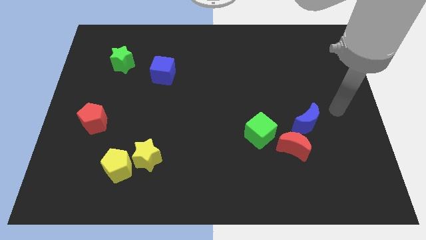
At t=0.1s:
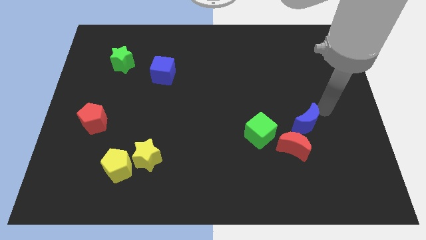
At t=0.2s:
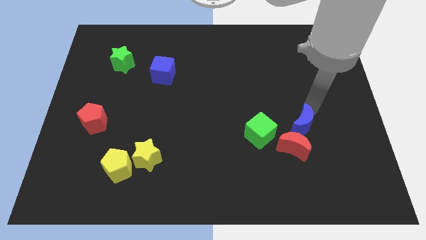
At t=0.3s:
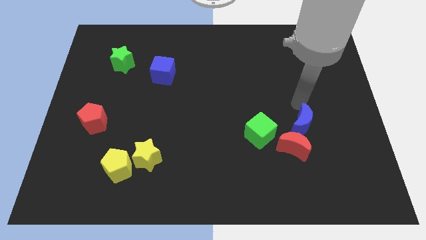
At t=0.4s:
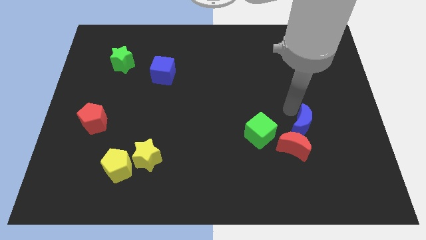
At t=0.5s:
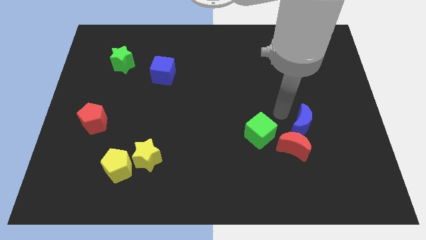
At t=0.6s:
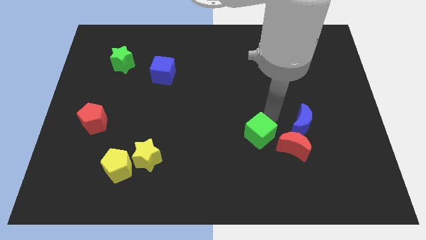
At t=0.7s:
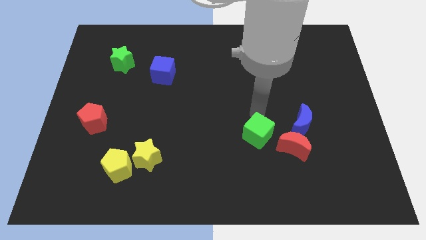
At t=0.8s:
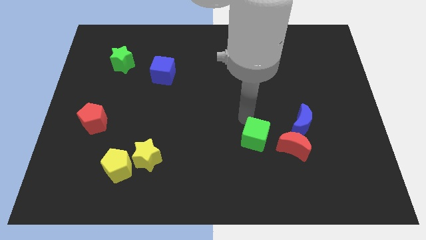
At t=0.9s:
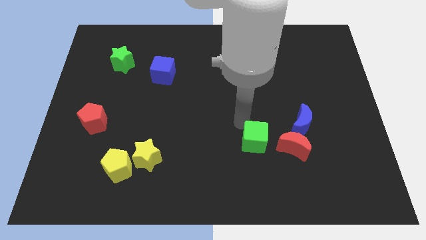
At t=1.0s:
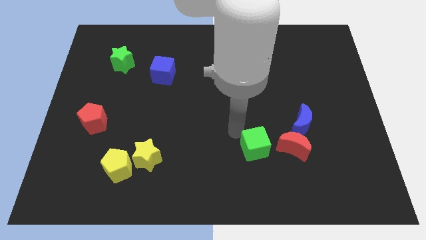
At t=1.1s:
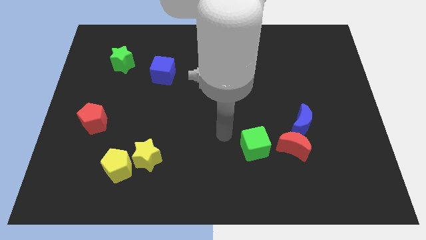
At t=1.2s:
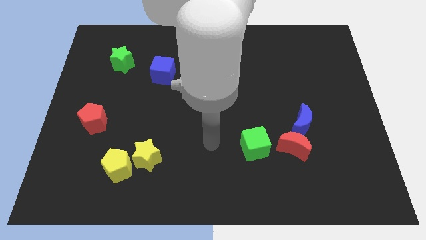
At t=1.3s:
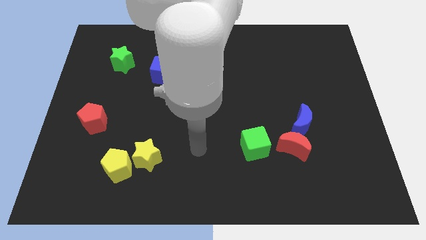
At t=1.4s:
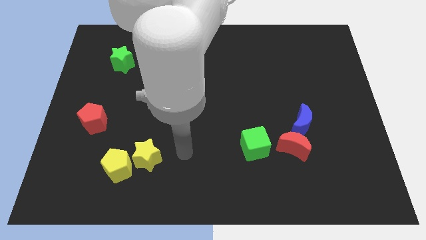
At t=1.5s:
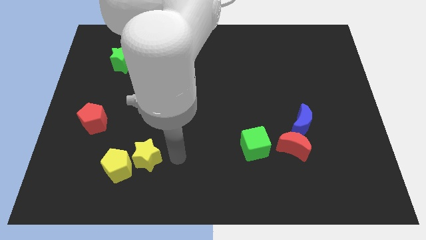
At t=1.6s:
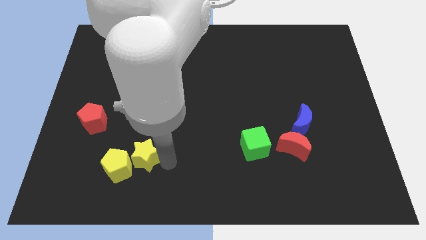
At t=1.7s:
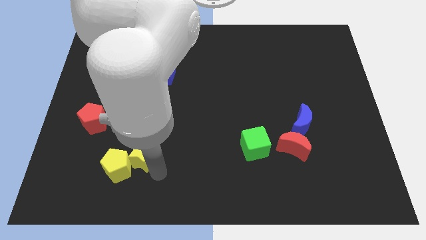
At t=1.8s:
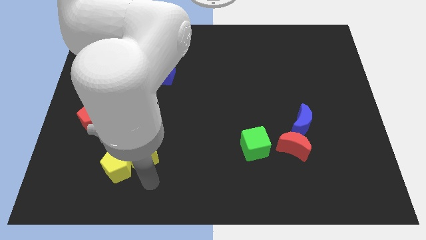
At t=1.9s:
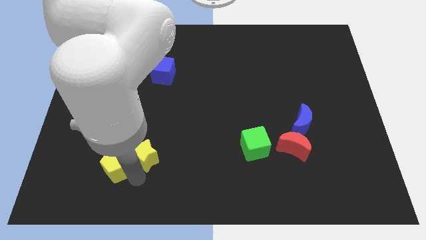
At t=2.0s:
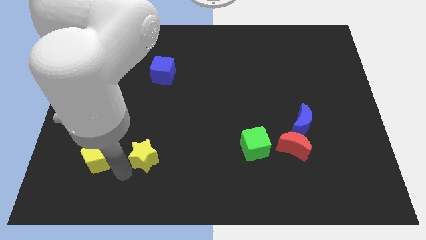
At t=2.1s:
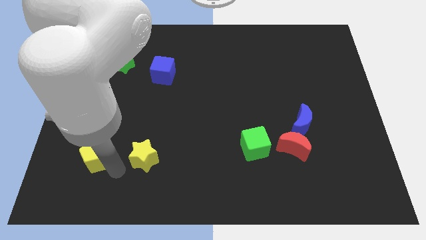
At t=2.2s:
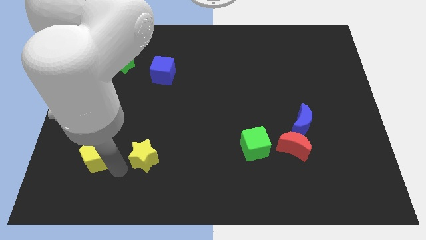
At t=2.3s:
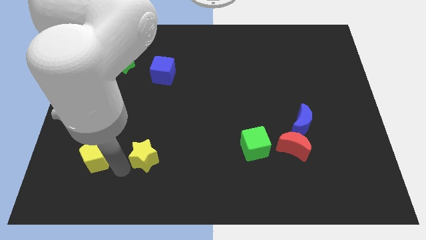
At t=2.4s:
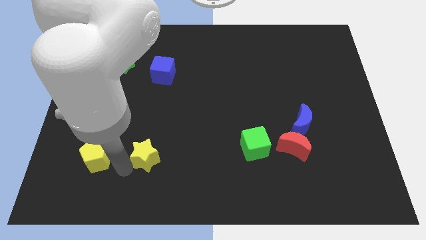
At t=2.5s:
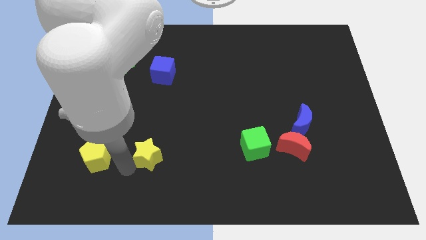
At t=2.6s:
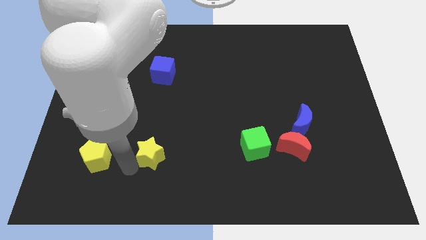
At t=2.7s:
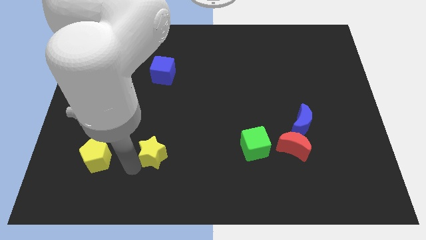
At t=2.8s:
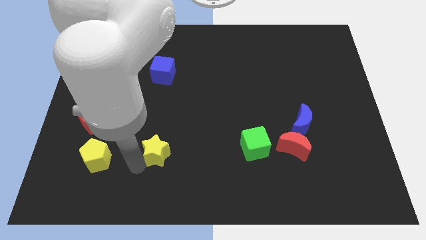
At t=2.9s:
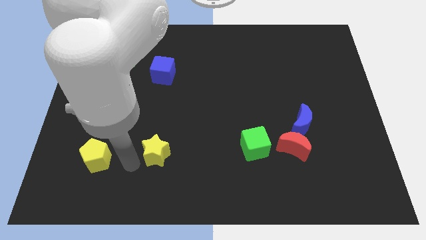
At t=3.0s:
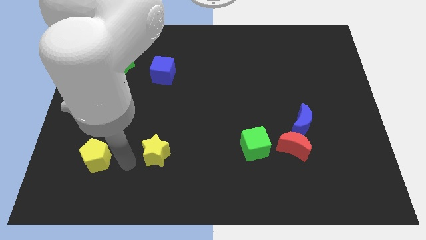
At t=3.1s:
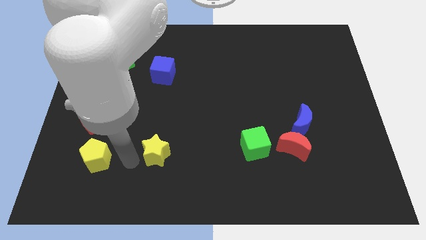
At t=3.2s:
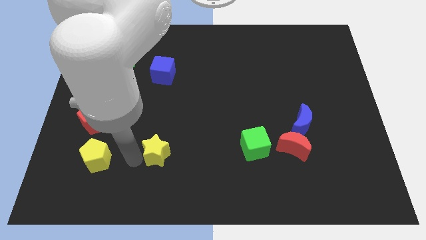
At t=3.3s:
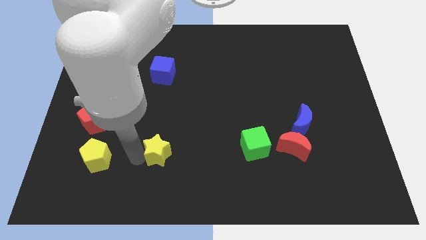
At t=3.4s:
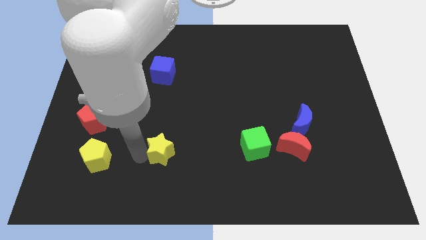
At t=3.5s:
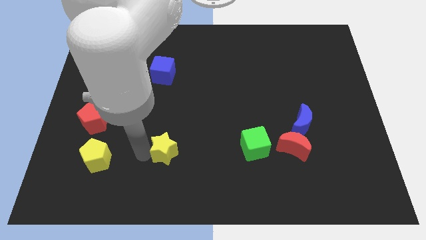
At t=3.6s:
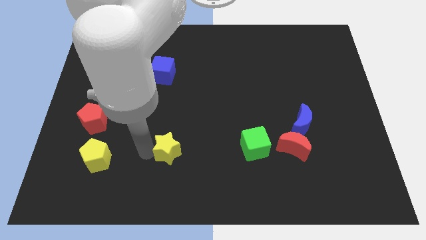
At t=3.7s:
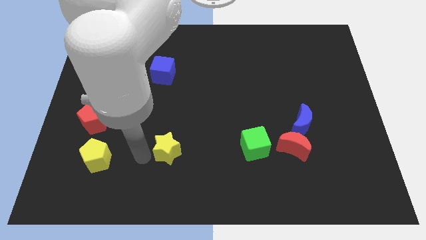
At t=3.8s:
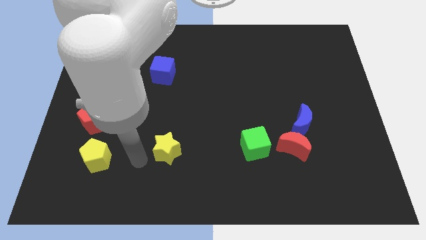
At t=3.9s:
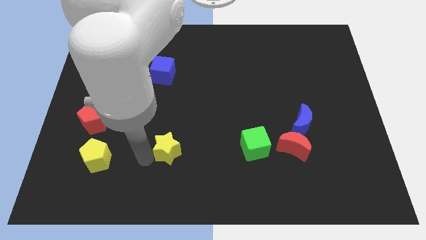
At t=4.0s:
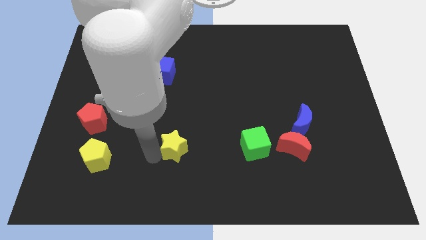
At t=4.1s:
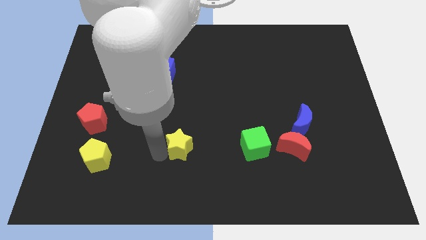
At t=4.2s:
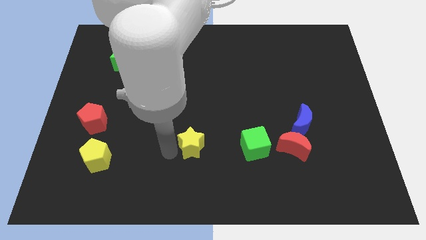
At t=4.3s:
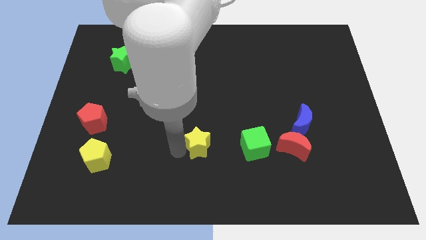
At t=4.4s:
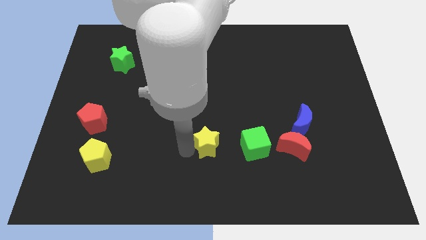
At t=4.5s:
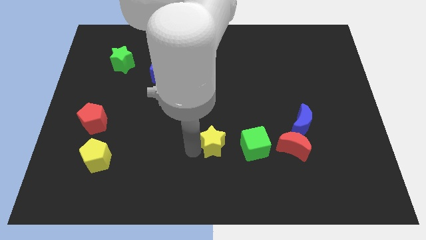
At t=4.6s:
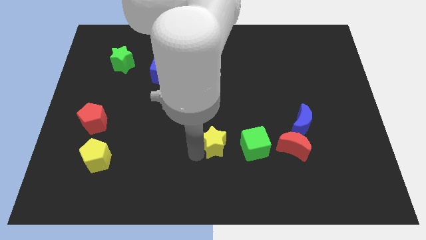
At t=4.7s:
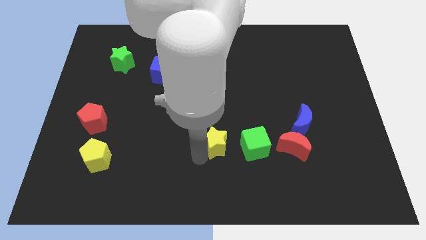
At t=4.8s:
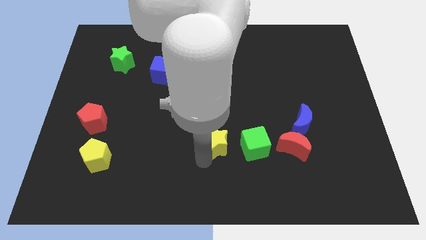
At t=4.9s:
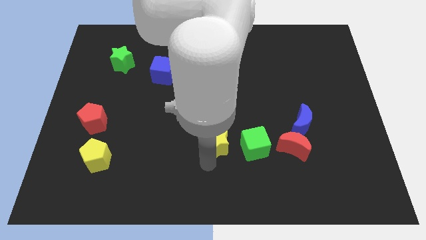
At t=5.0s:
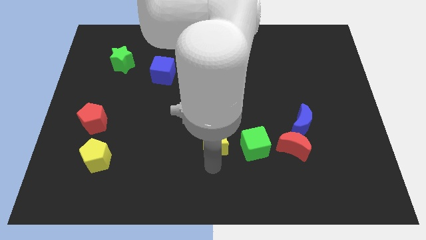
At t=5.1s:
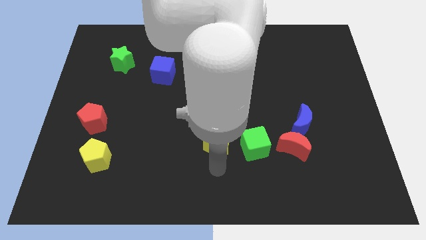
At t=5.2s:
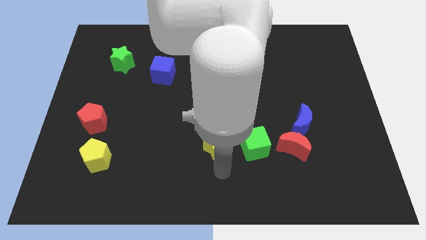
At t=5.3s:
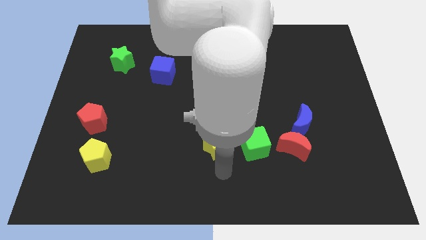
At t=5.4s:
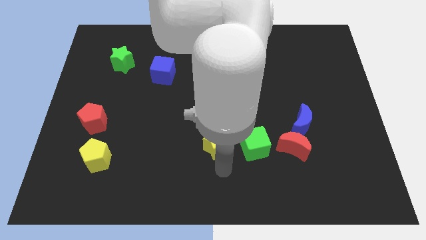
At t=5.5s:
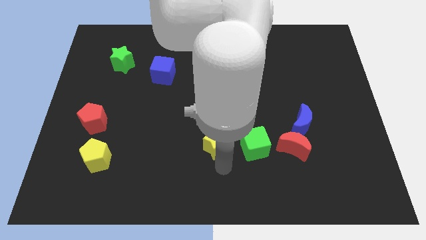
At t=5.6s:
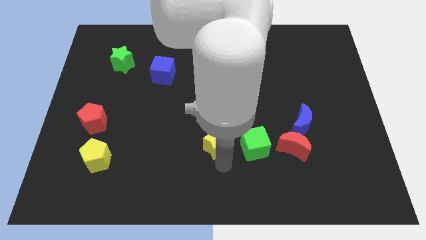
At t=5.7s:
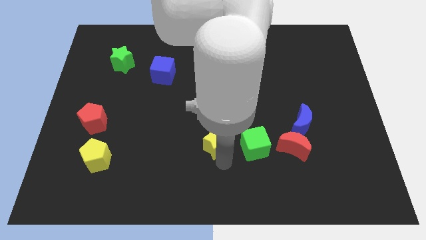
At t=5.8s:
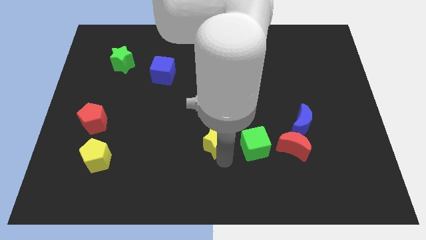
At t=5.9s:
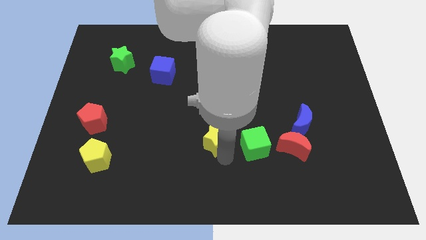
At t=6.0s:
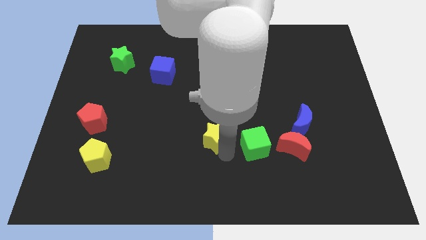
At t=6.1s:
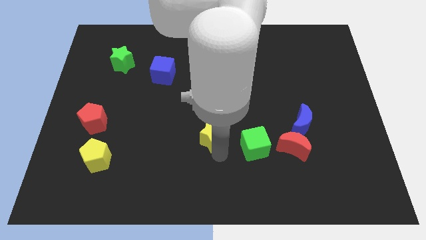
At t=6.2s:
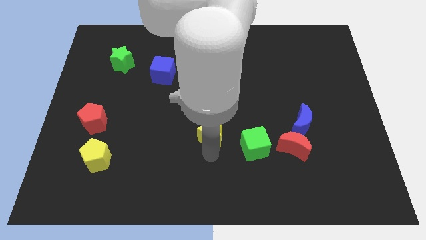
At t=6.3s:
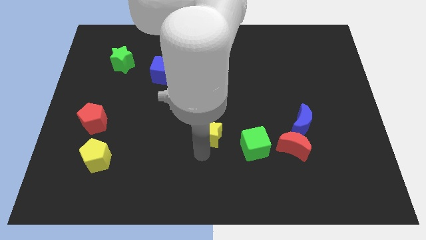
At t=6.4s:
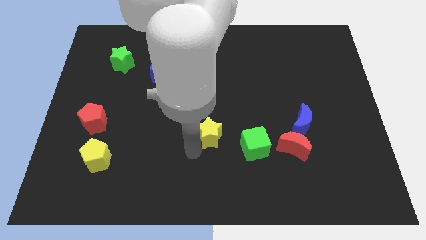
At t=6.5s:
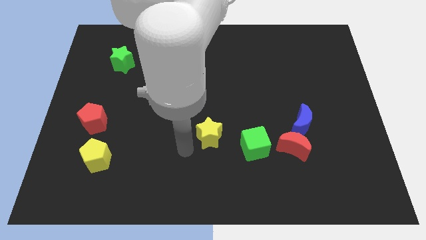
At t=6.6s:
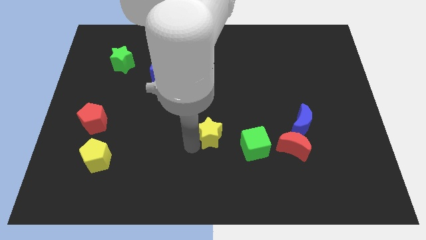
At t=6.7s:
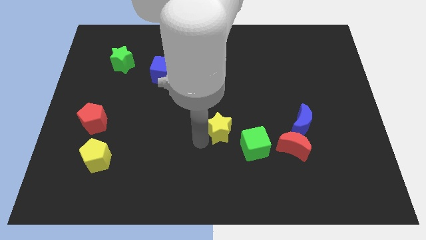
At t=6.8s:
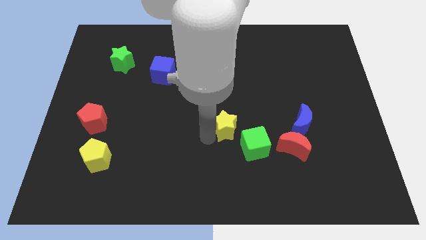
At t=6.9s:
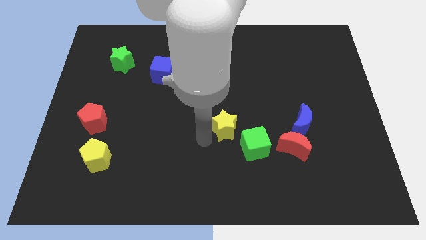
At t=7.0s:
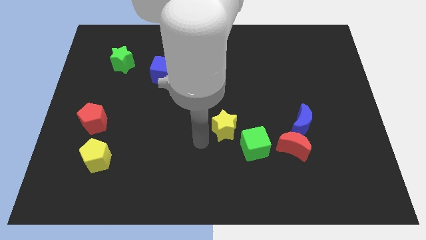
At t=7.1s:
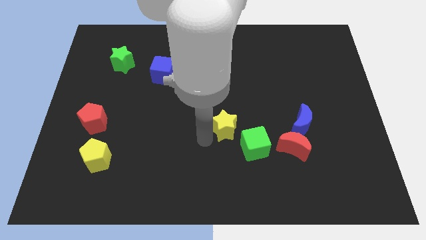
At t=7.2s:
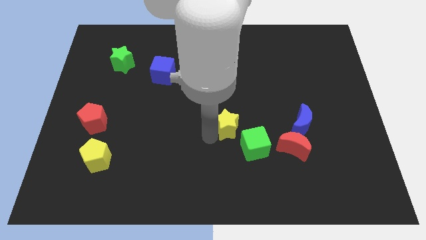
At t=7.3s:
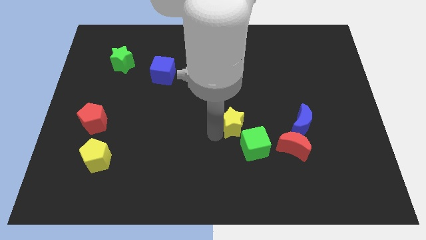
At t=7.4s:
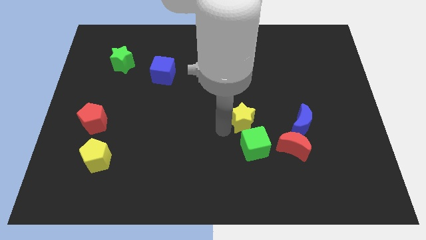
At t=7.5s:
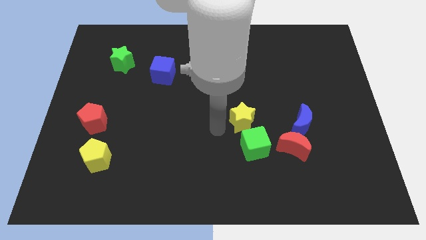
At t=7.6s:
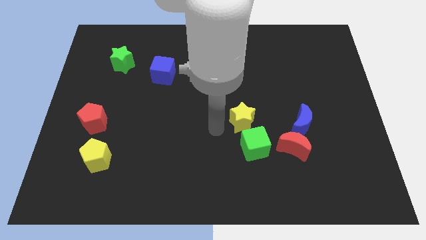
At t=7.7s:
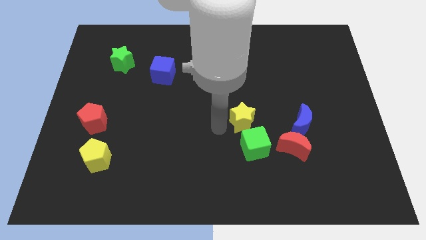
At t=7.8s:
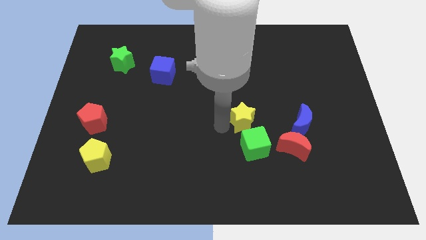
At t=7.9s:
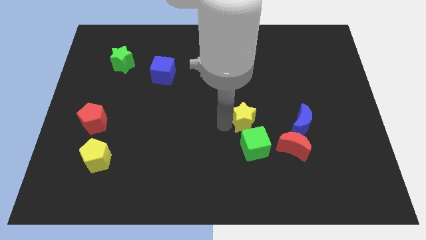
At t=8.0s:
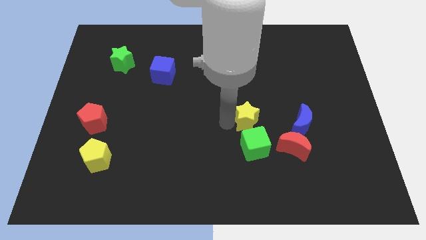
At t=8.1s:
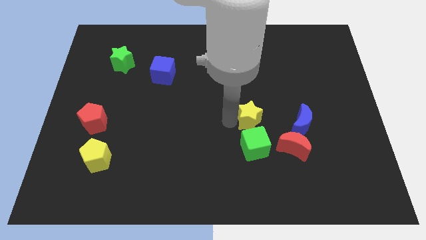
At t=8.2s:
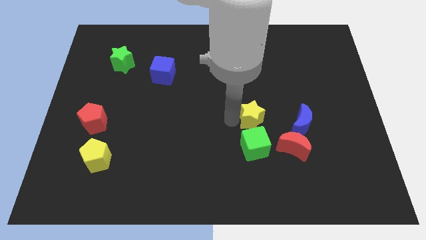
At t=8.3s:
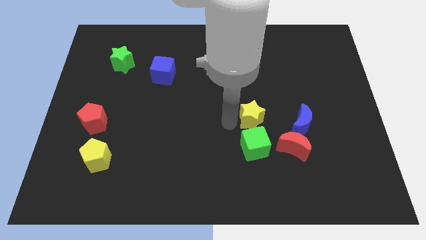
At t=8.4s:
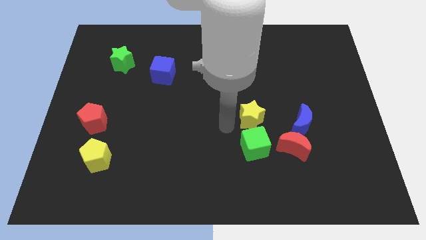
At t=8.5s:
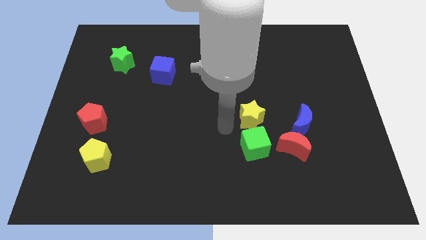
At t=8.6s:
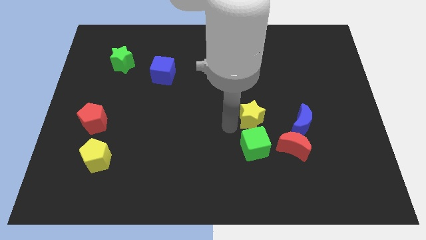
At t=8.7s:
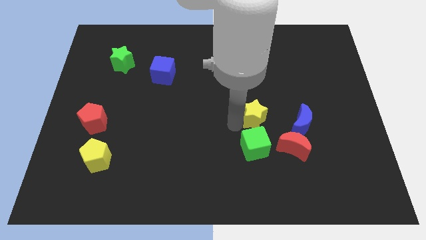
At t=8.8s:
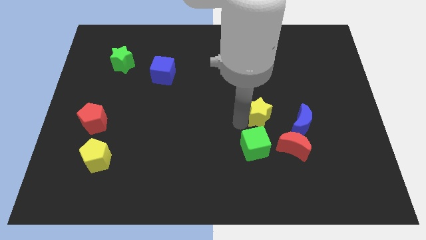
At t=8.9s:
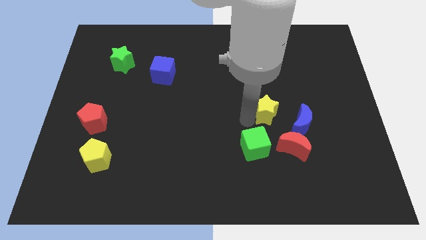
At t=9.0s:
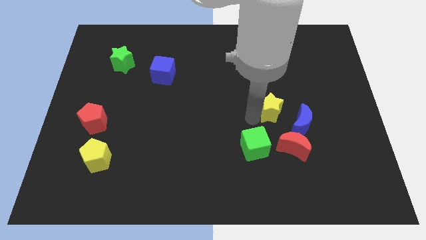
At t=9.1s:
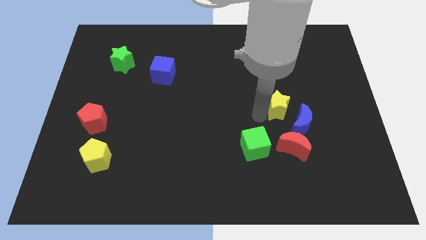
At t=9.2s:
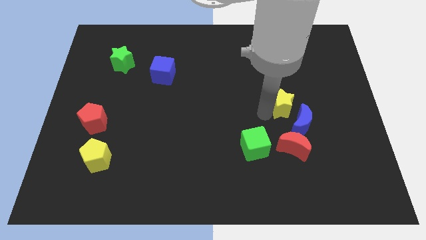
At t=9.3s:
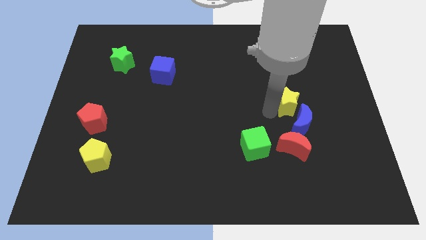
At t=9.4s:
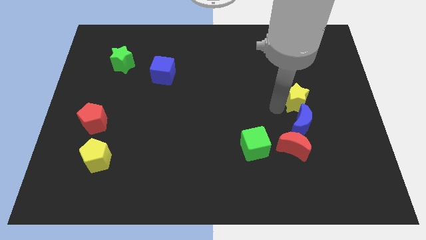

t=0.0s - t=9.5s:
move the yellow star to the top right side of the blue moon
